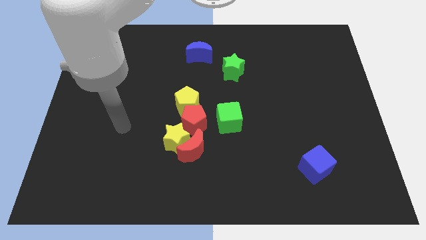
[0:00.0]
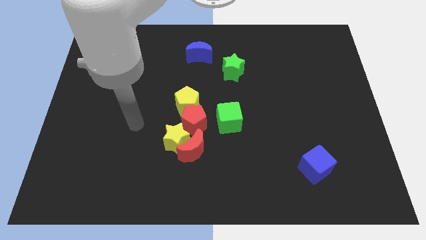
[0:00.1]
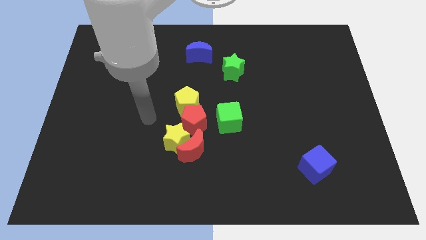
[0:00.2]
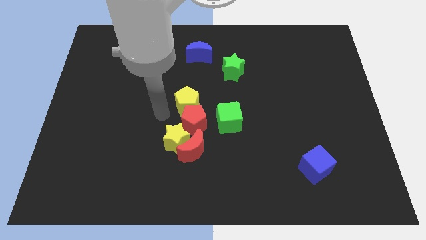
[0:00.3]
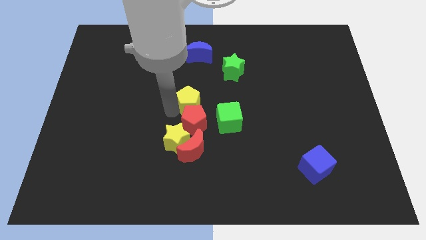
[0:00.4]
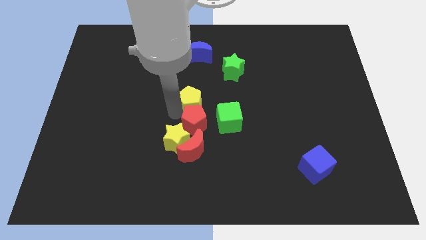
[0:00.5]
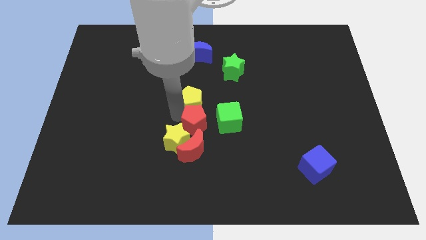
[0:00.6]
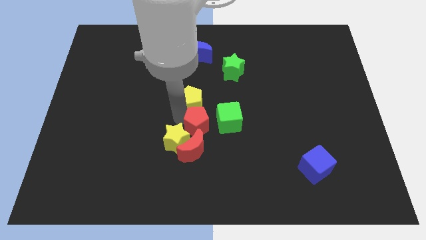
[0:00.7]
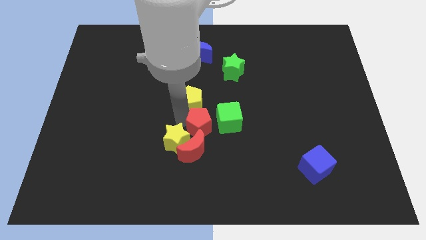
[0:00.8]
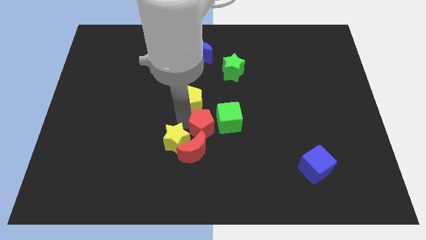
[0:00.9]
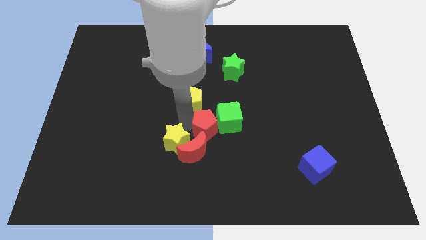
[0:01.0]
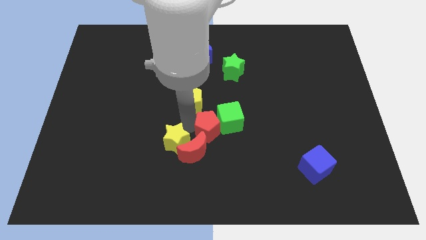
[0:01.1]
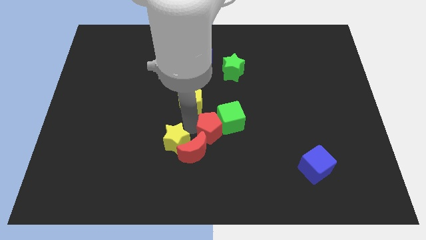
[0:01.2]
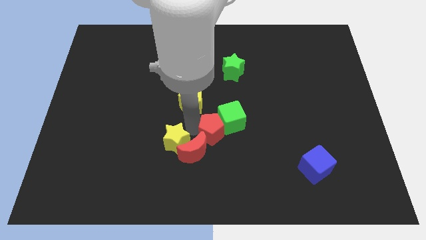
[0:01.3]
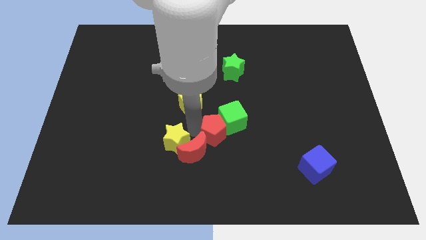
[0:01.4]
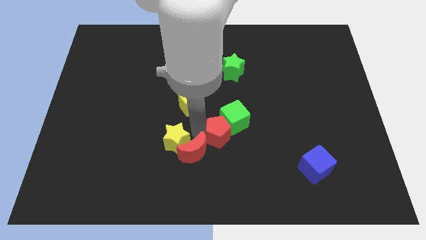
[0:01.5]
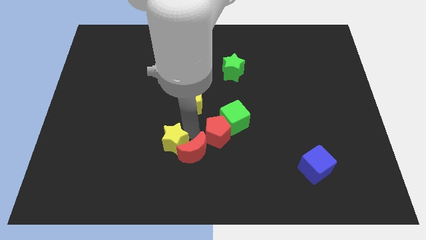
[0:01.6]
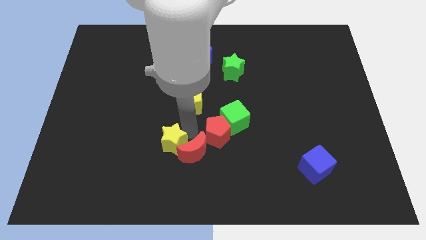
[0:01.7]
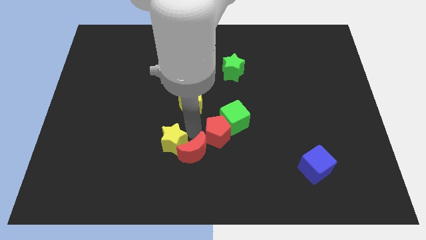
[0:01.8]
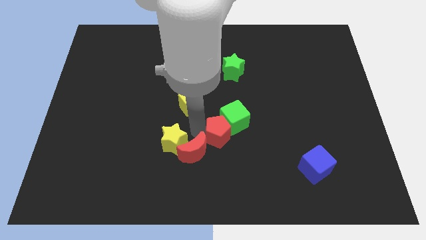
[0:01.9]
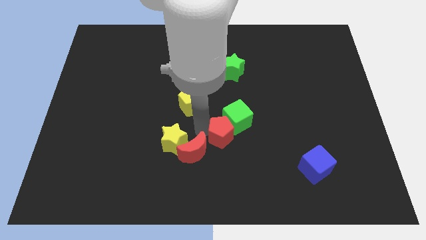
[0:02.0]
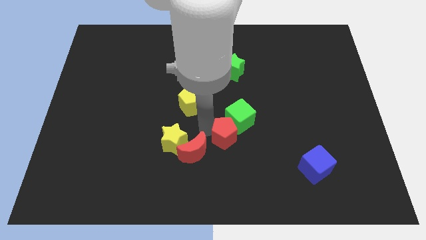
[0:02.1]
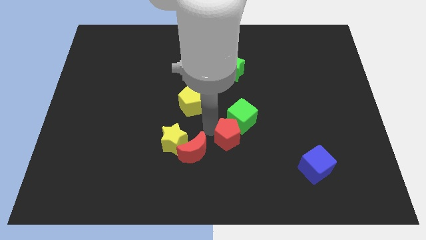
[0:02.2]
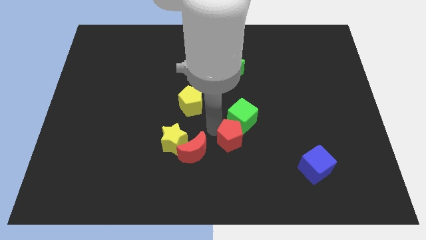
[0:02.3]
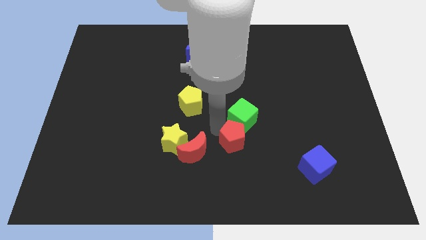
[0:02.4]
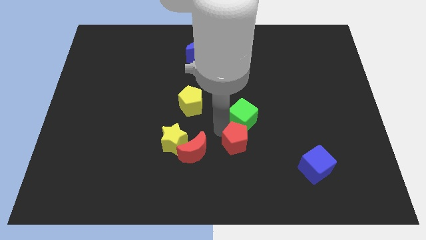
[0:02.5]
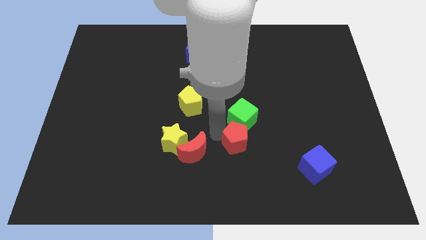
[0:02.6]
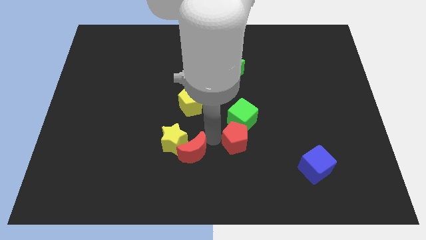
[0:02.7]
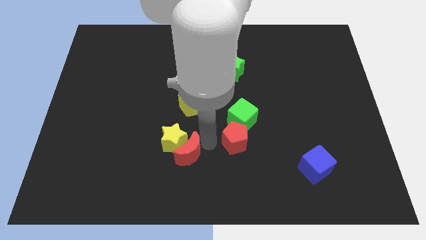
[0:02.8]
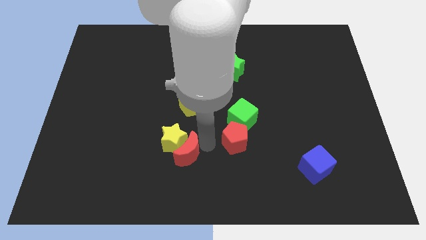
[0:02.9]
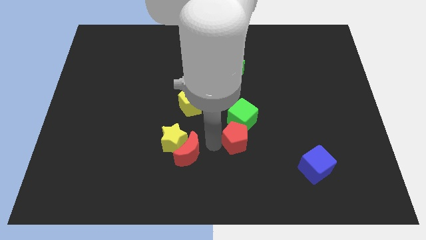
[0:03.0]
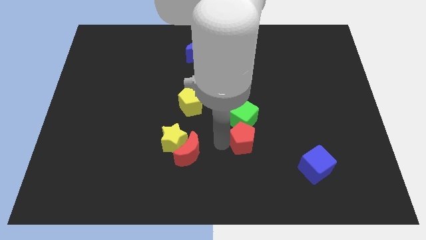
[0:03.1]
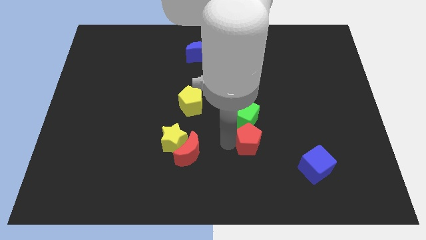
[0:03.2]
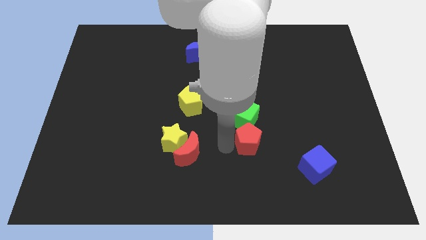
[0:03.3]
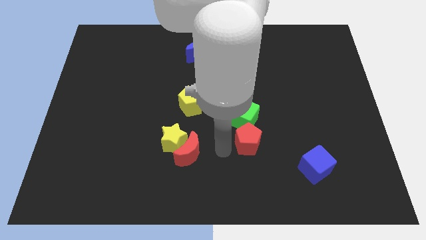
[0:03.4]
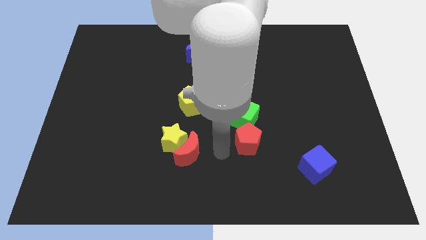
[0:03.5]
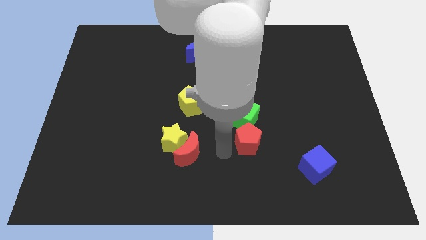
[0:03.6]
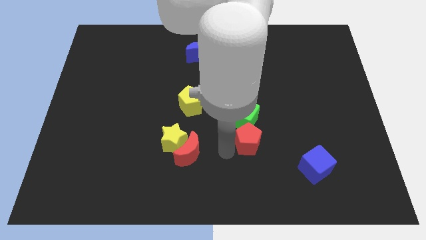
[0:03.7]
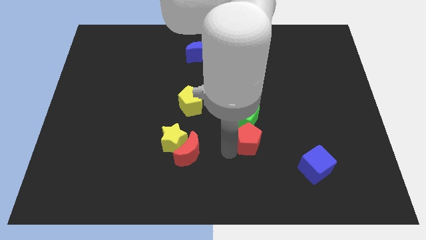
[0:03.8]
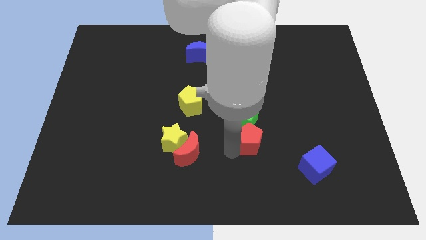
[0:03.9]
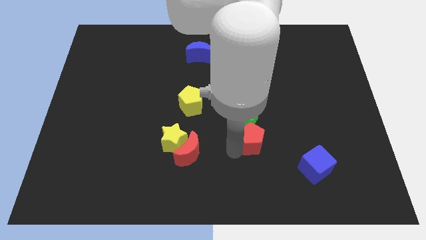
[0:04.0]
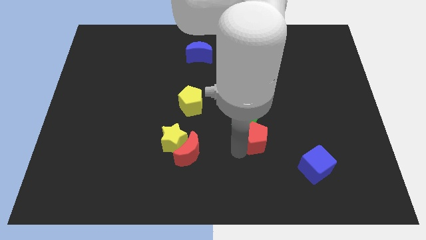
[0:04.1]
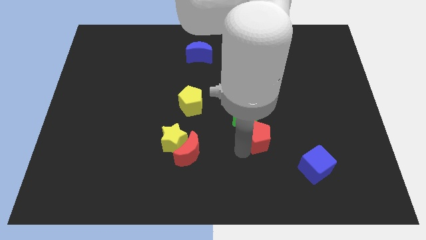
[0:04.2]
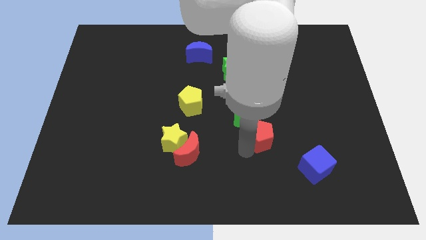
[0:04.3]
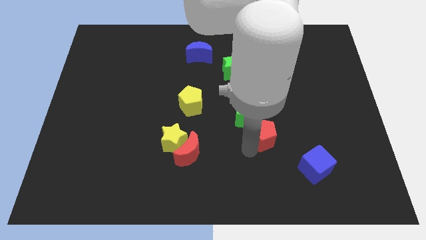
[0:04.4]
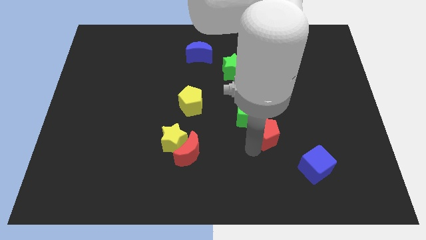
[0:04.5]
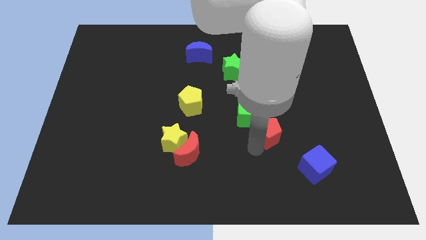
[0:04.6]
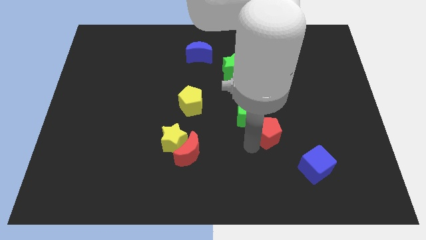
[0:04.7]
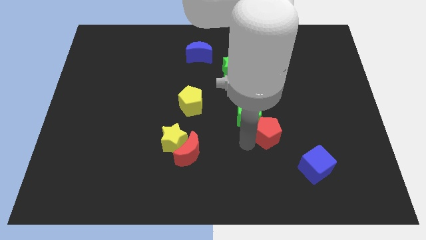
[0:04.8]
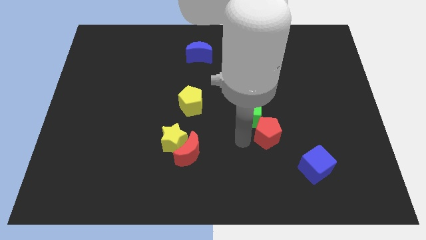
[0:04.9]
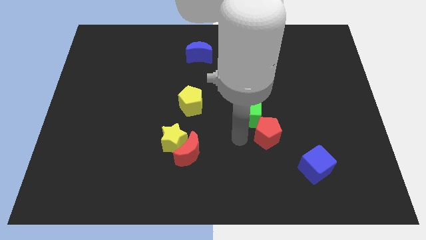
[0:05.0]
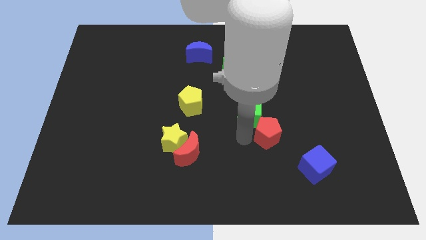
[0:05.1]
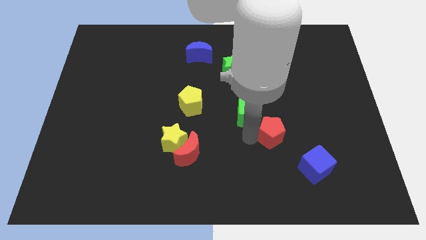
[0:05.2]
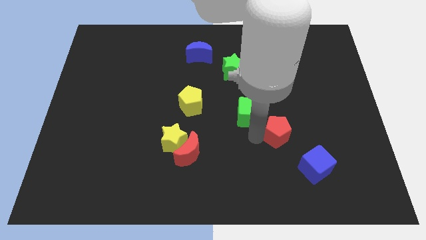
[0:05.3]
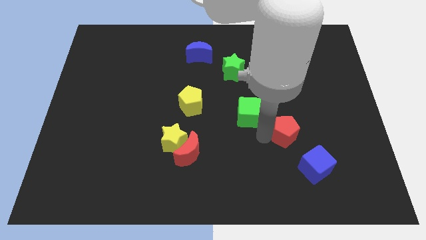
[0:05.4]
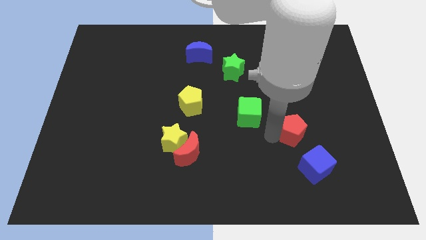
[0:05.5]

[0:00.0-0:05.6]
put the red pentagon to the top side of the blue cube

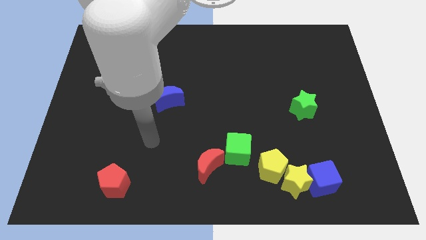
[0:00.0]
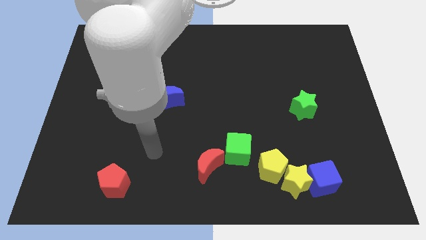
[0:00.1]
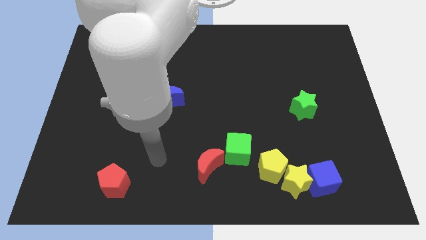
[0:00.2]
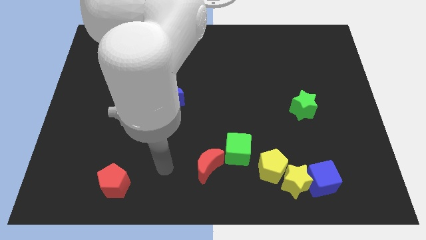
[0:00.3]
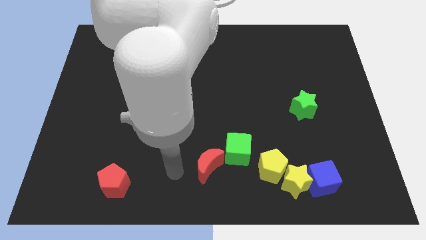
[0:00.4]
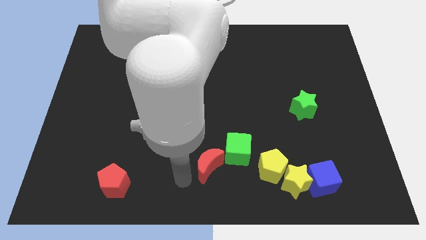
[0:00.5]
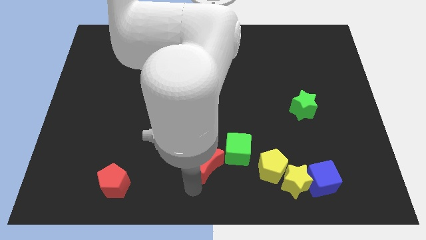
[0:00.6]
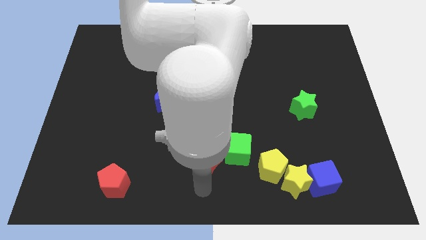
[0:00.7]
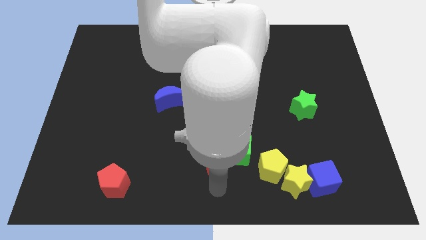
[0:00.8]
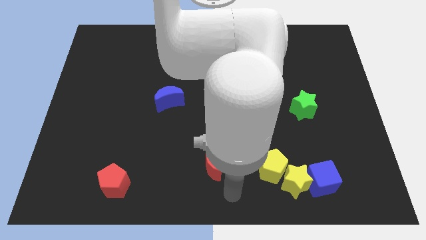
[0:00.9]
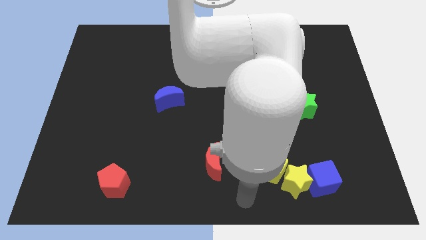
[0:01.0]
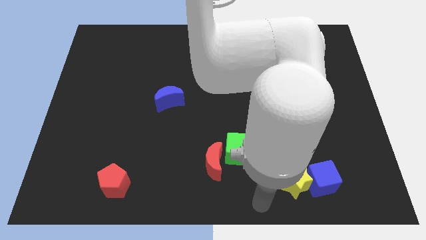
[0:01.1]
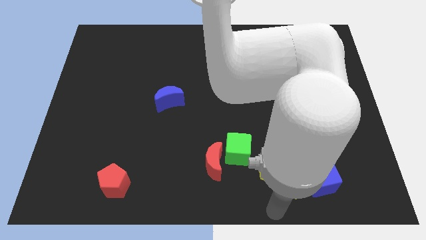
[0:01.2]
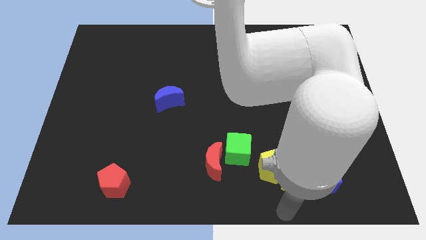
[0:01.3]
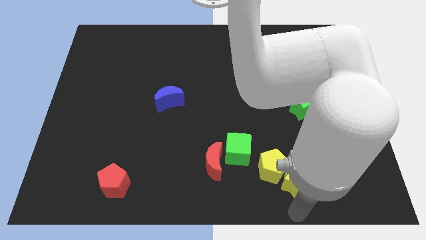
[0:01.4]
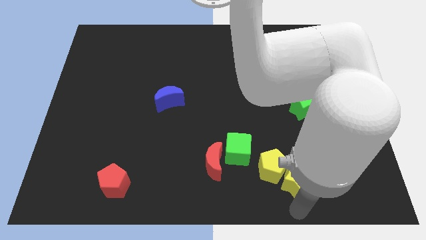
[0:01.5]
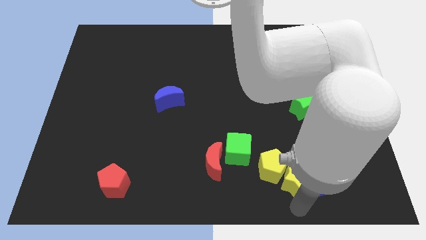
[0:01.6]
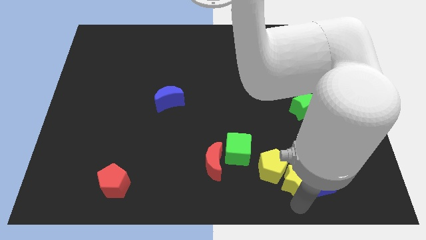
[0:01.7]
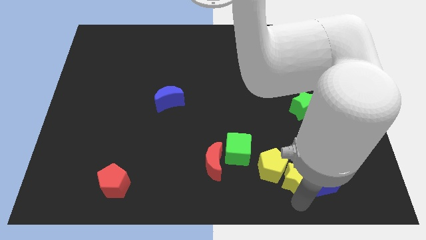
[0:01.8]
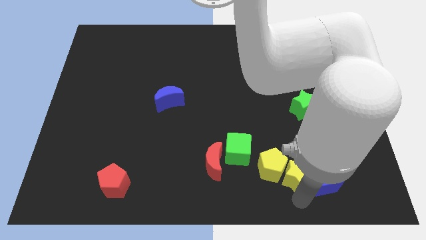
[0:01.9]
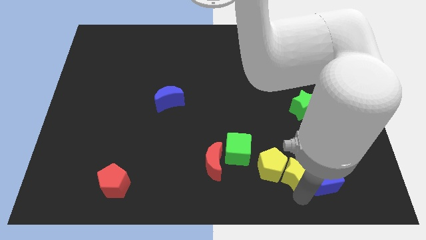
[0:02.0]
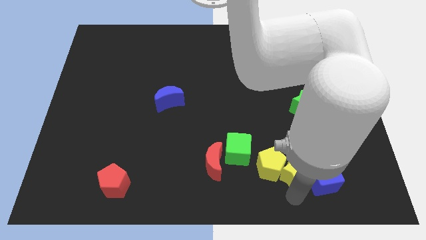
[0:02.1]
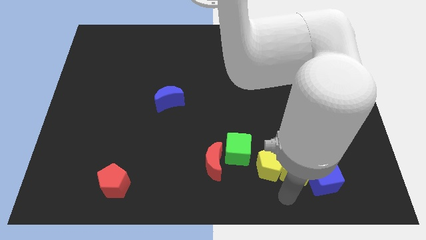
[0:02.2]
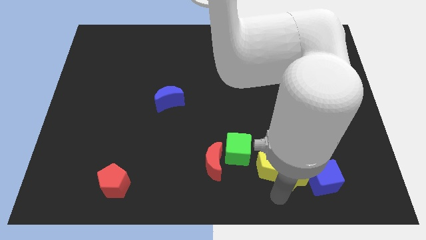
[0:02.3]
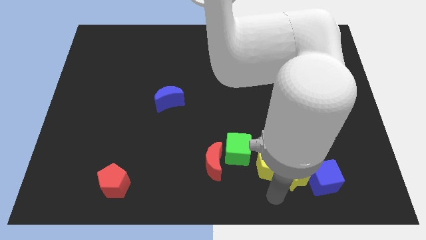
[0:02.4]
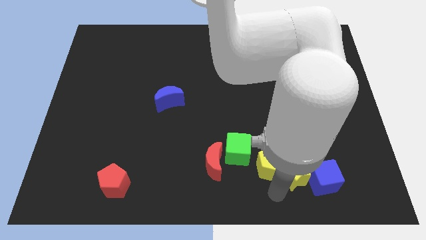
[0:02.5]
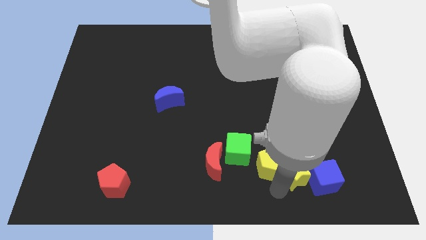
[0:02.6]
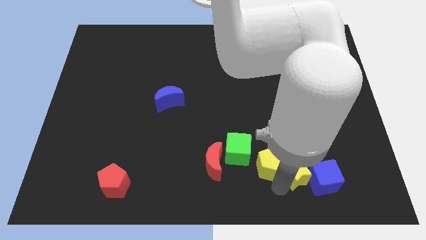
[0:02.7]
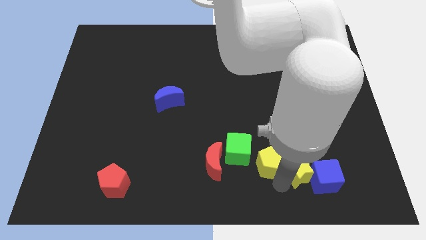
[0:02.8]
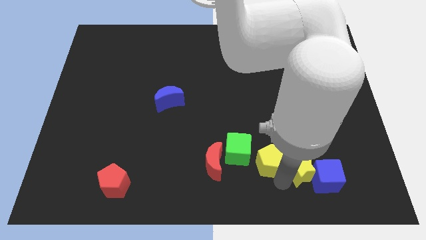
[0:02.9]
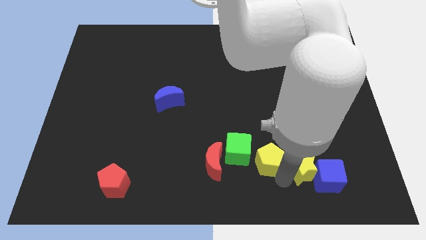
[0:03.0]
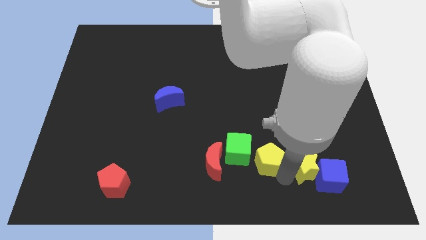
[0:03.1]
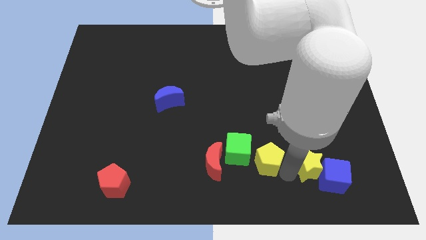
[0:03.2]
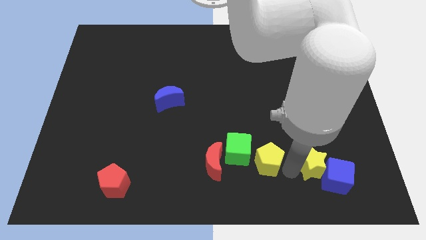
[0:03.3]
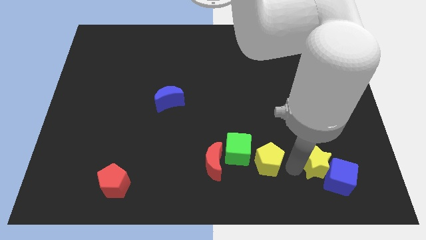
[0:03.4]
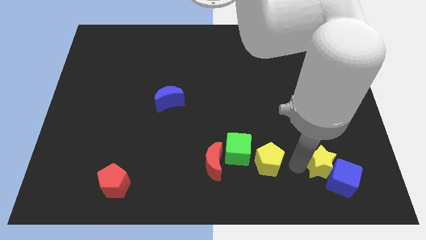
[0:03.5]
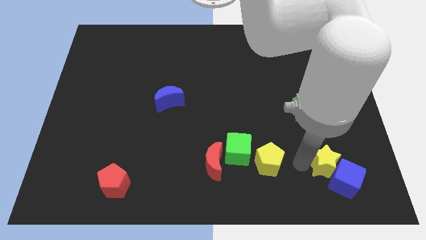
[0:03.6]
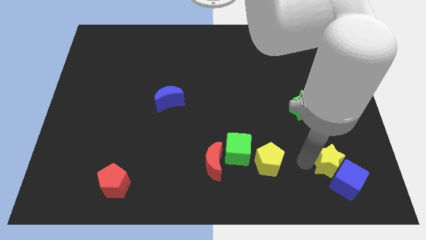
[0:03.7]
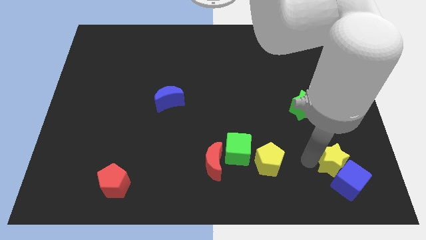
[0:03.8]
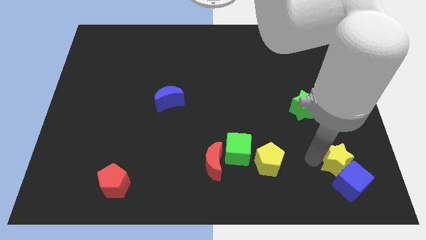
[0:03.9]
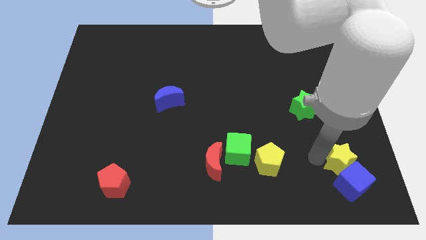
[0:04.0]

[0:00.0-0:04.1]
put the yellow star to the top right side of the blue cube
